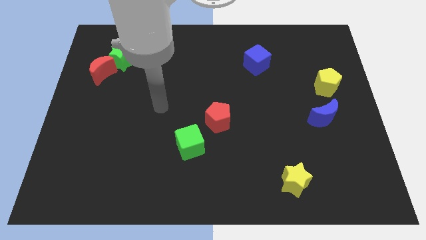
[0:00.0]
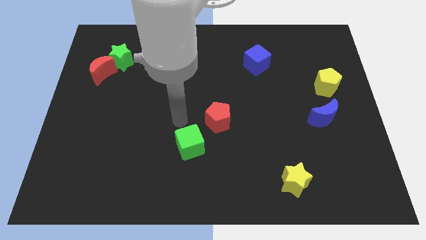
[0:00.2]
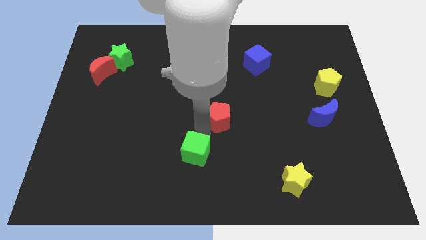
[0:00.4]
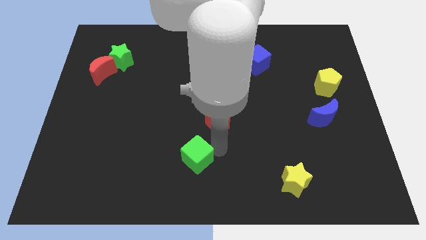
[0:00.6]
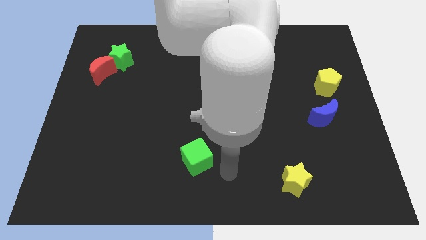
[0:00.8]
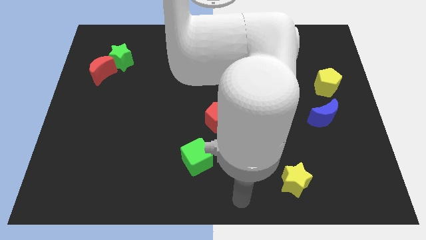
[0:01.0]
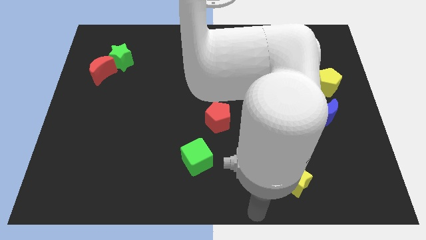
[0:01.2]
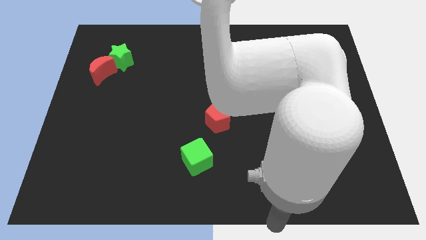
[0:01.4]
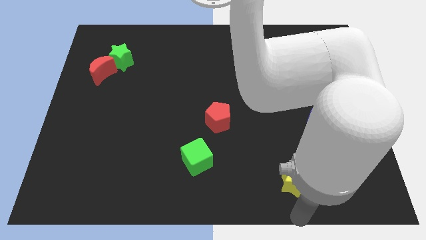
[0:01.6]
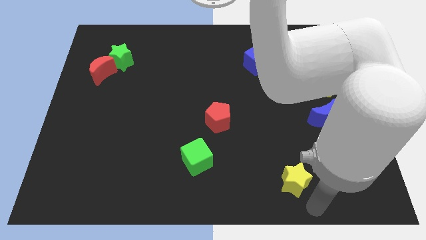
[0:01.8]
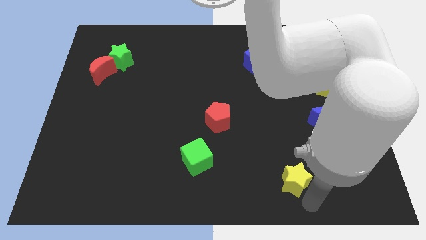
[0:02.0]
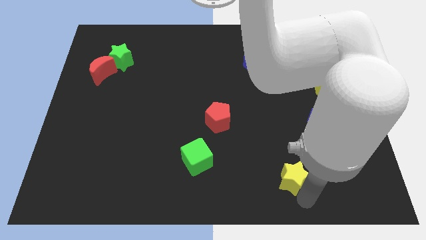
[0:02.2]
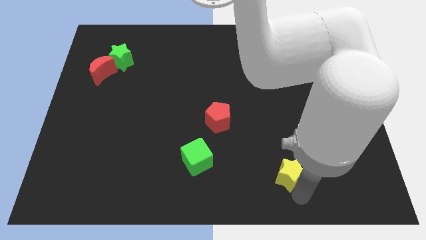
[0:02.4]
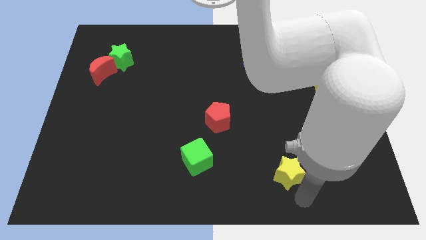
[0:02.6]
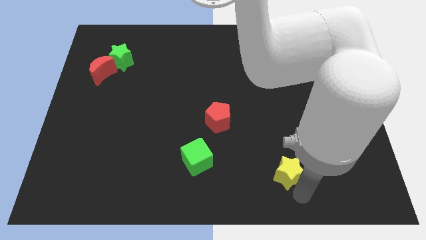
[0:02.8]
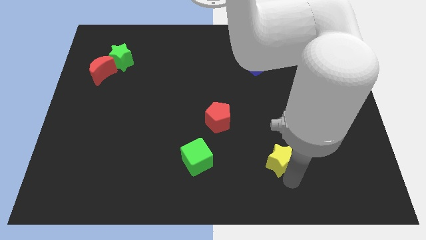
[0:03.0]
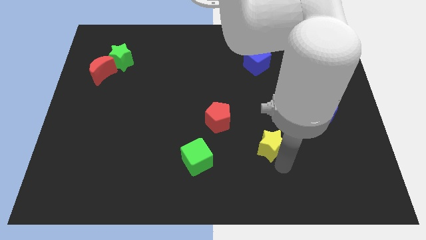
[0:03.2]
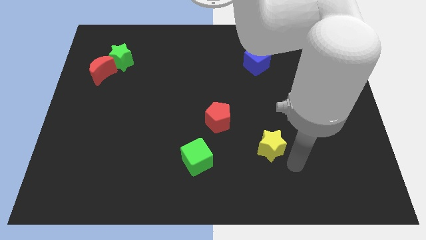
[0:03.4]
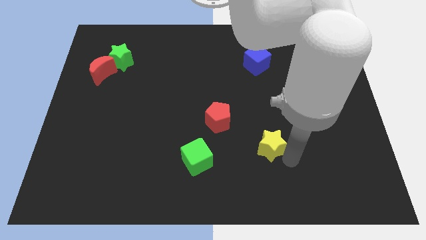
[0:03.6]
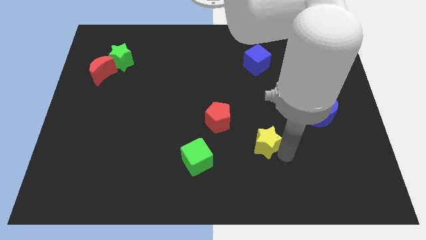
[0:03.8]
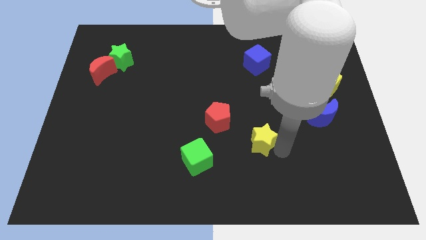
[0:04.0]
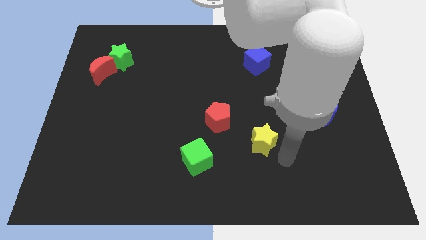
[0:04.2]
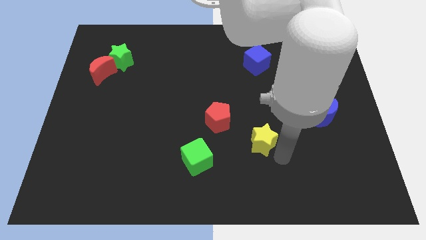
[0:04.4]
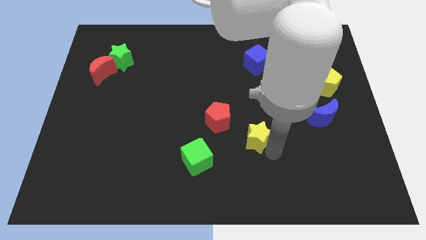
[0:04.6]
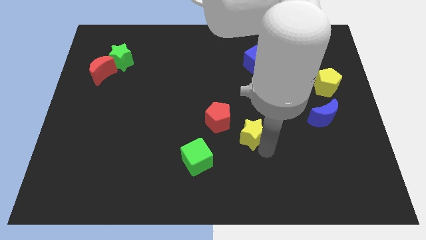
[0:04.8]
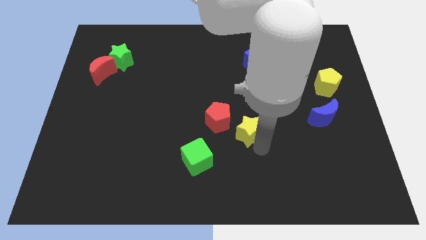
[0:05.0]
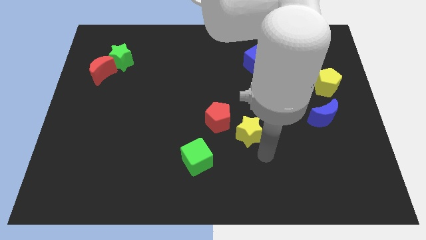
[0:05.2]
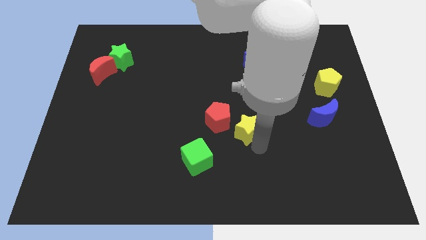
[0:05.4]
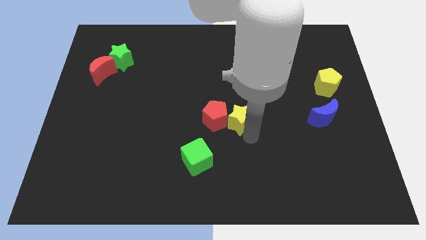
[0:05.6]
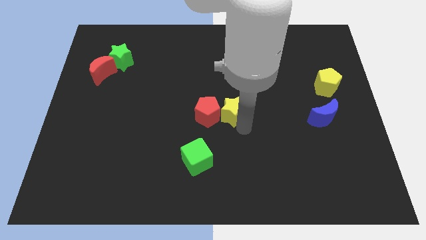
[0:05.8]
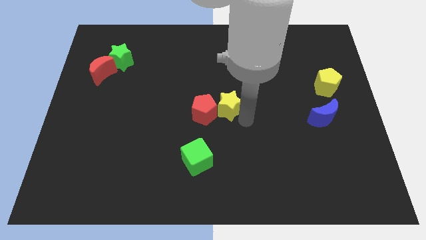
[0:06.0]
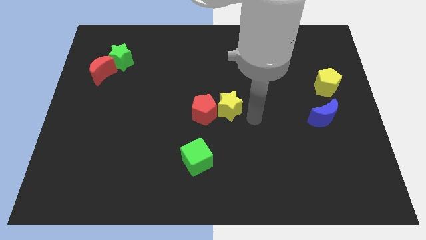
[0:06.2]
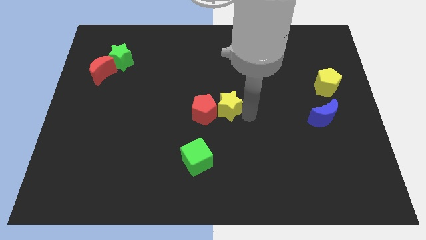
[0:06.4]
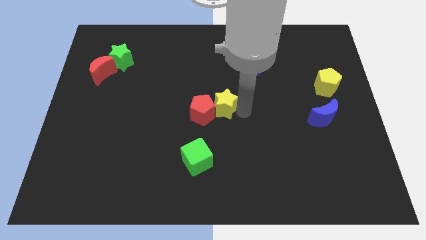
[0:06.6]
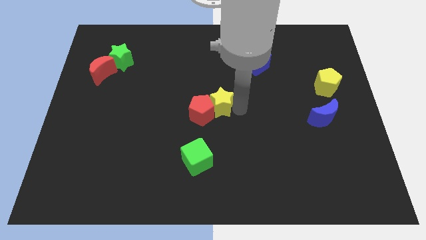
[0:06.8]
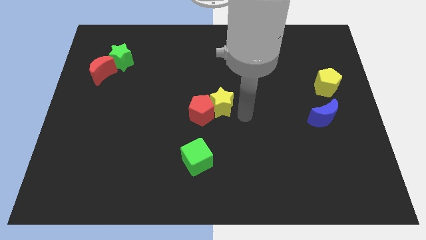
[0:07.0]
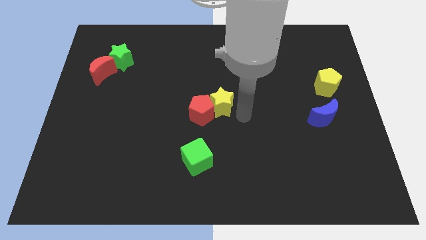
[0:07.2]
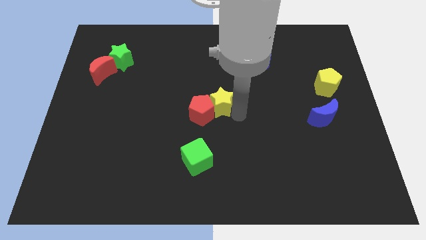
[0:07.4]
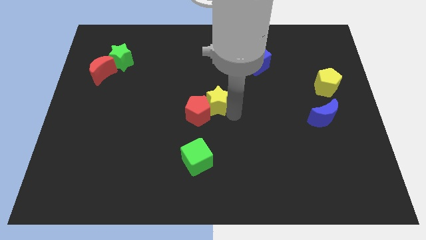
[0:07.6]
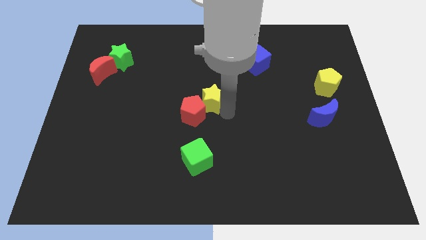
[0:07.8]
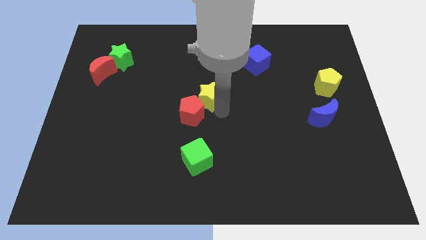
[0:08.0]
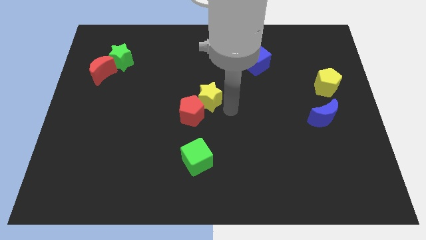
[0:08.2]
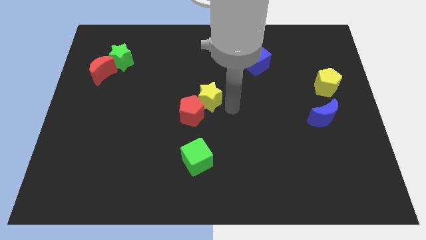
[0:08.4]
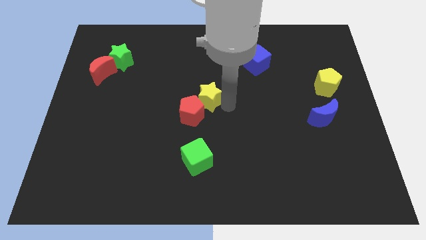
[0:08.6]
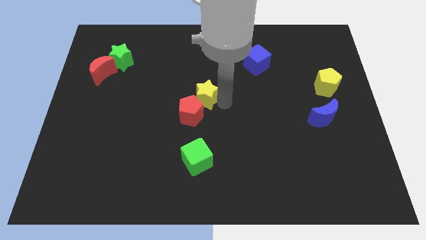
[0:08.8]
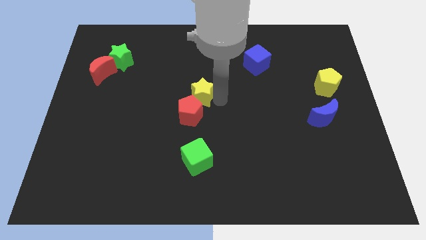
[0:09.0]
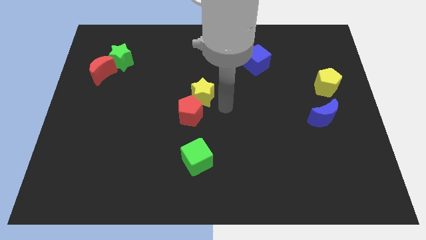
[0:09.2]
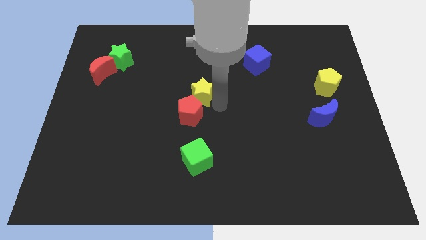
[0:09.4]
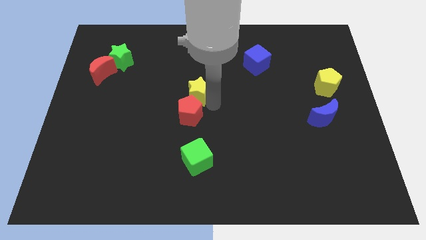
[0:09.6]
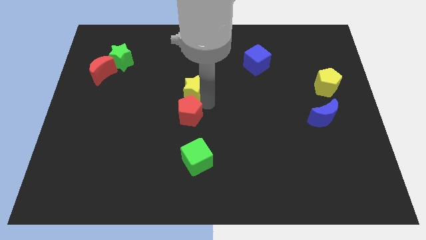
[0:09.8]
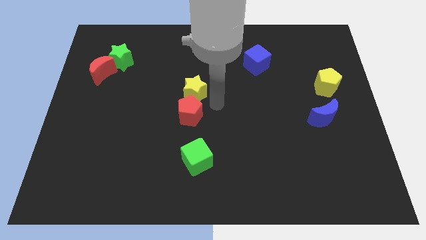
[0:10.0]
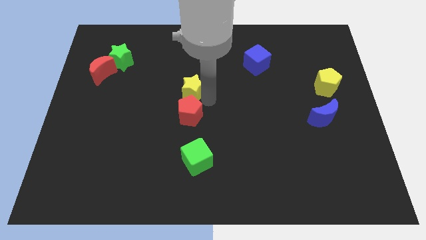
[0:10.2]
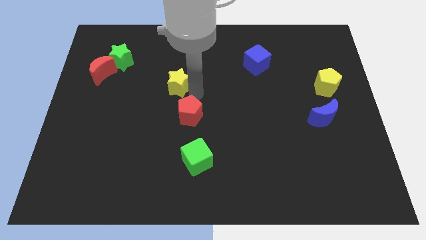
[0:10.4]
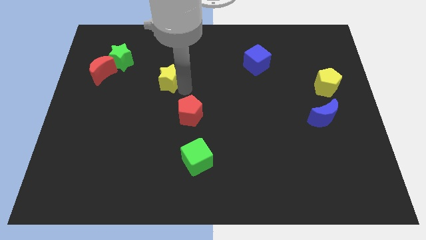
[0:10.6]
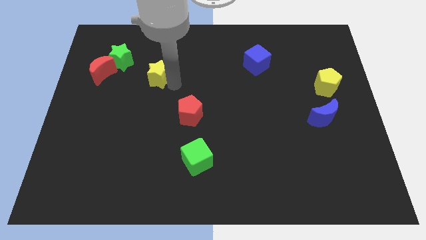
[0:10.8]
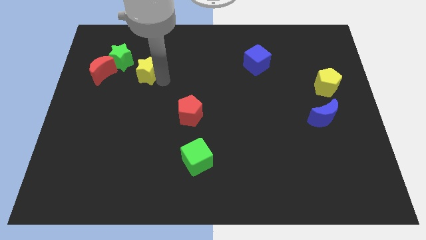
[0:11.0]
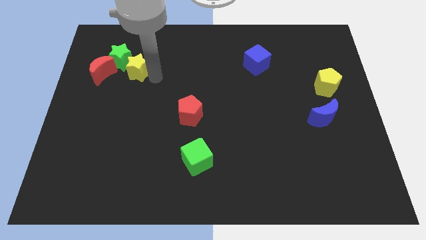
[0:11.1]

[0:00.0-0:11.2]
push the yellow star towards the green star

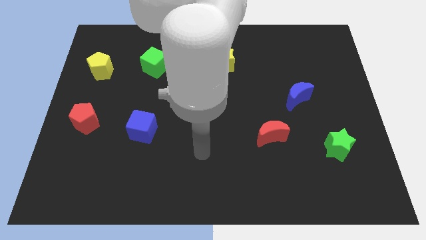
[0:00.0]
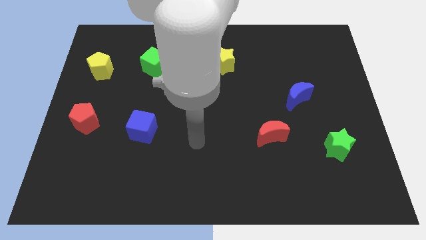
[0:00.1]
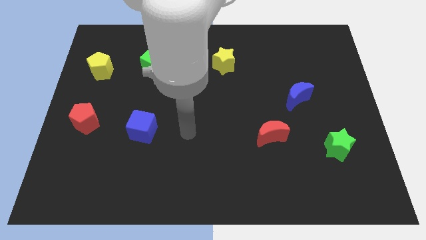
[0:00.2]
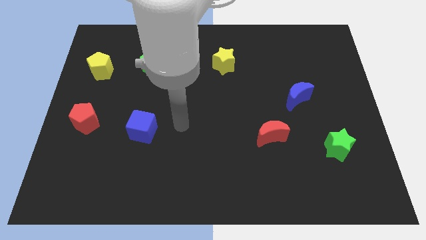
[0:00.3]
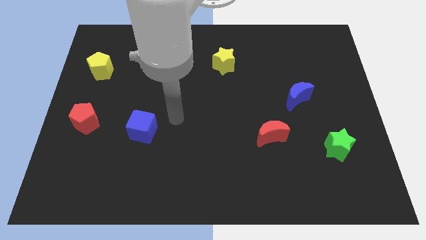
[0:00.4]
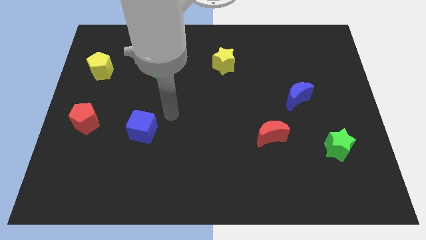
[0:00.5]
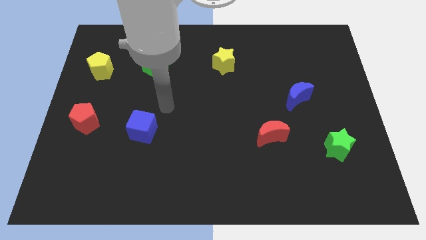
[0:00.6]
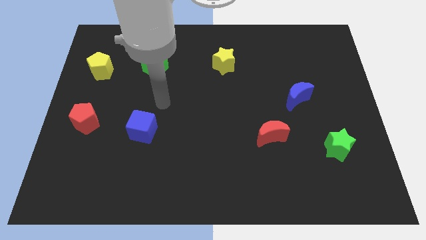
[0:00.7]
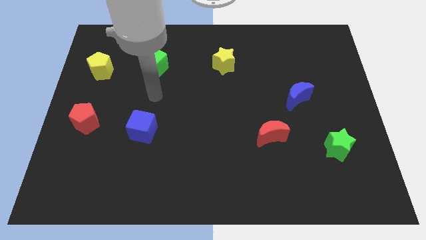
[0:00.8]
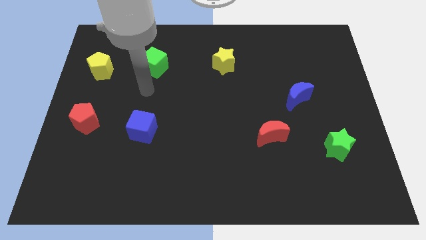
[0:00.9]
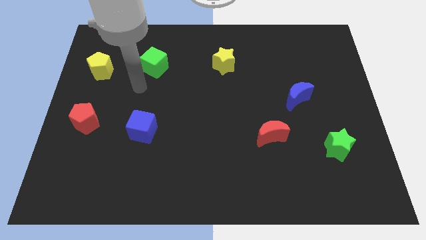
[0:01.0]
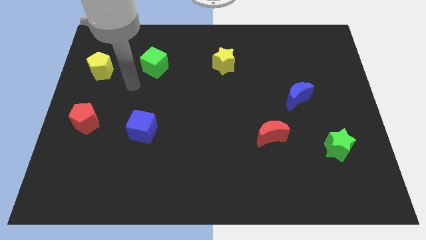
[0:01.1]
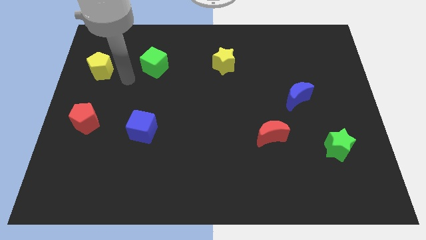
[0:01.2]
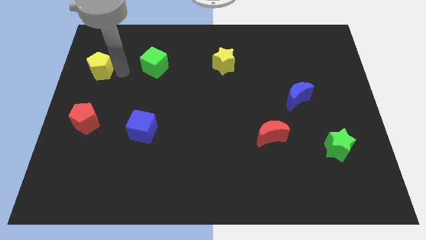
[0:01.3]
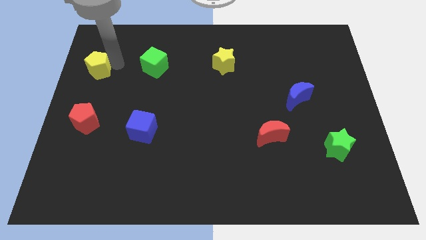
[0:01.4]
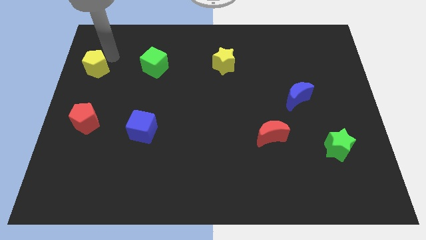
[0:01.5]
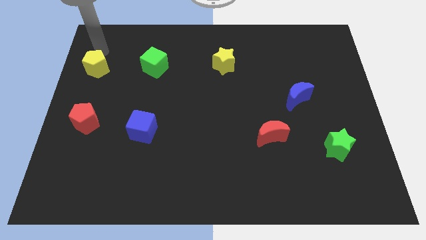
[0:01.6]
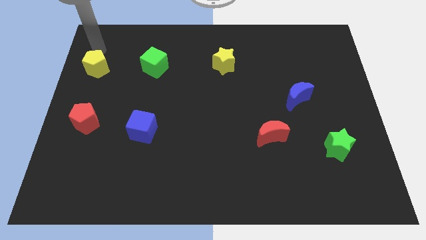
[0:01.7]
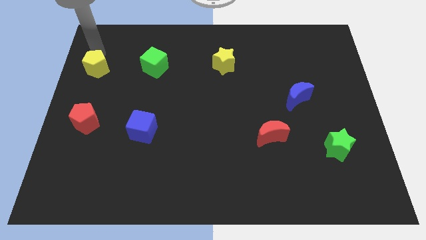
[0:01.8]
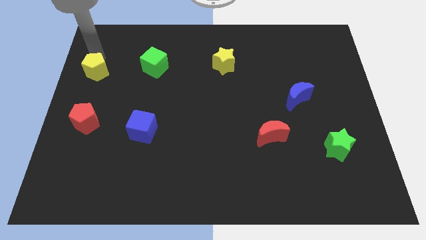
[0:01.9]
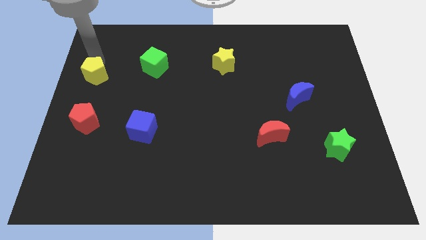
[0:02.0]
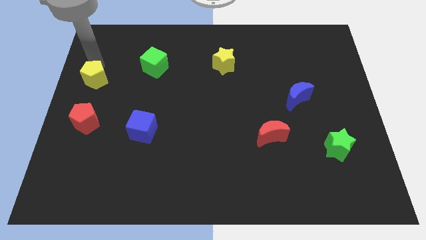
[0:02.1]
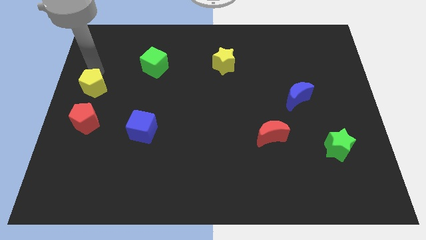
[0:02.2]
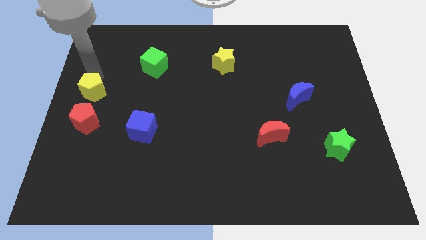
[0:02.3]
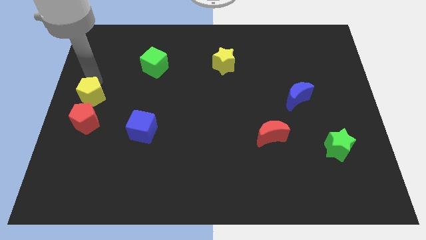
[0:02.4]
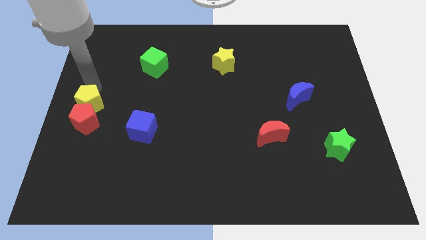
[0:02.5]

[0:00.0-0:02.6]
put the yellow pentagon next to the red pentagon
